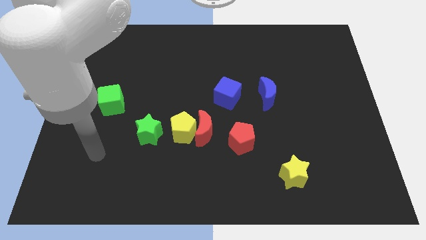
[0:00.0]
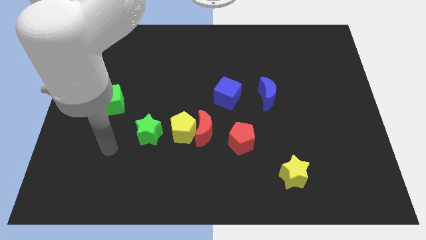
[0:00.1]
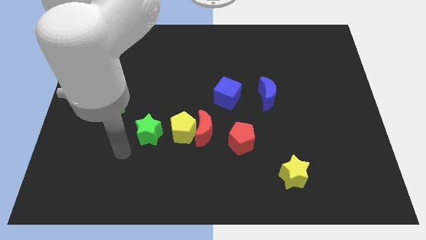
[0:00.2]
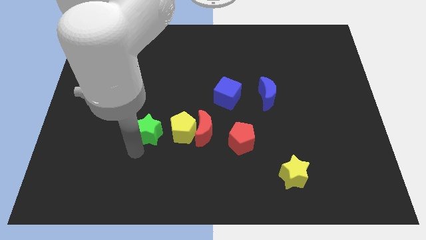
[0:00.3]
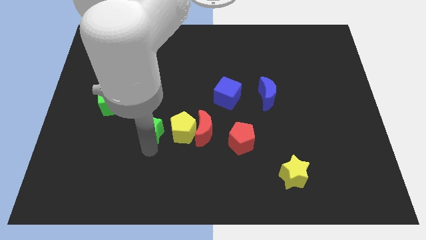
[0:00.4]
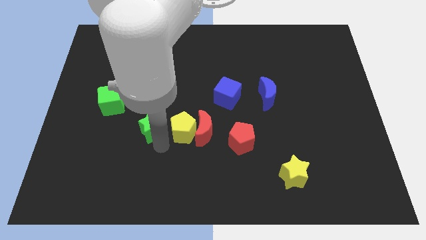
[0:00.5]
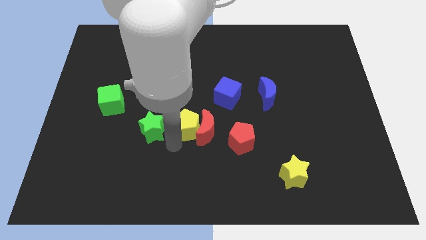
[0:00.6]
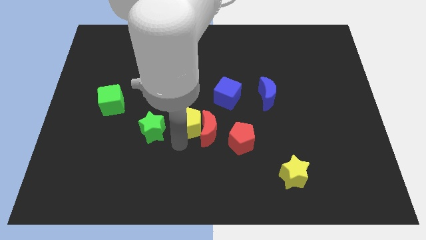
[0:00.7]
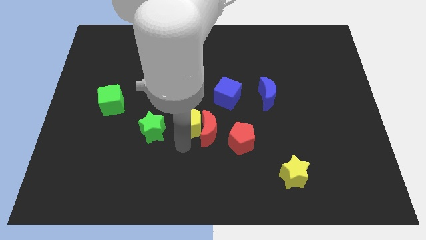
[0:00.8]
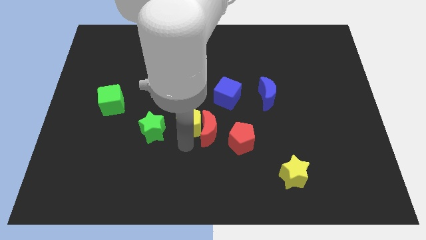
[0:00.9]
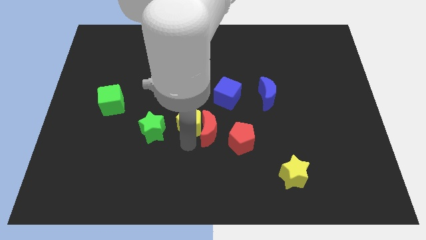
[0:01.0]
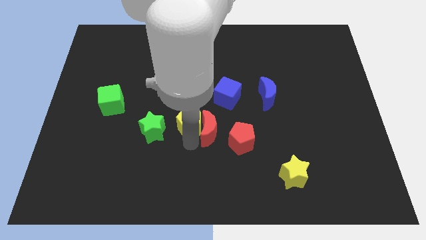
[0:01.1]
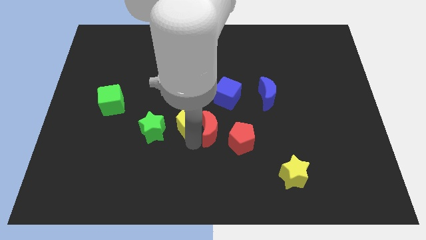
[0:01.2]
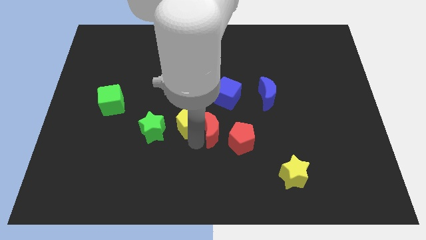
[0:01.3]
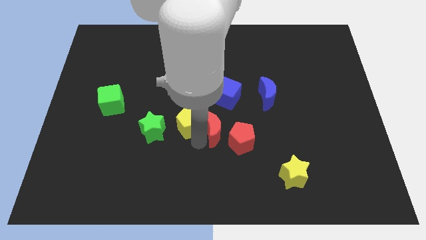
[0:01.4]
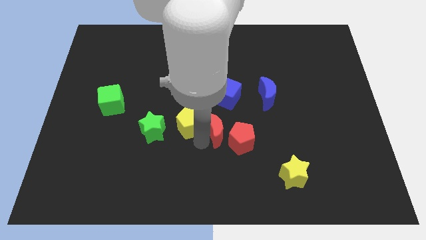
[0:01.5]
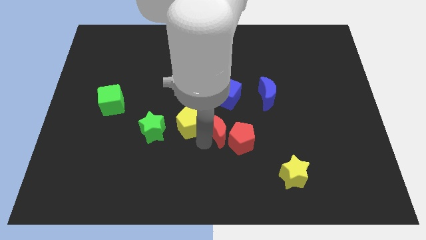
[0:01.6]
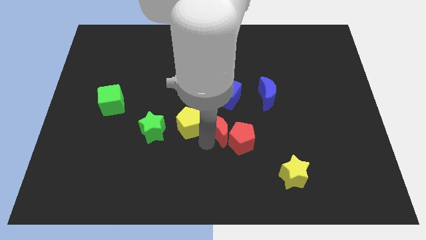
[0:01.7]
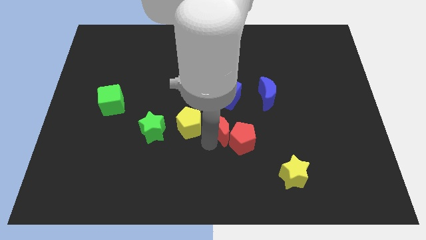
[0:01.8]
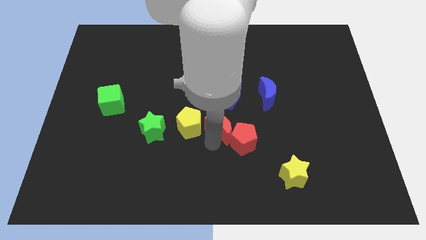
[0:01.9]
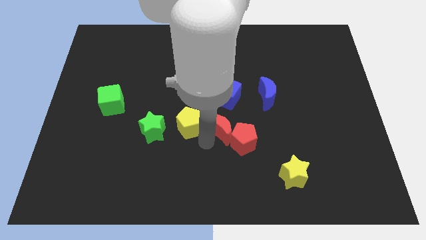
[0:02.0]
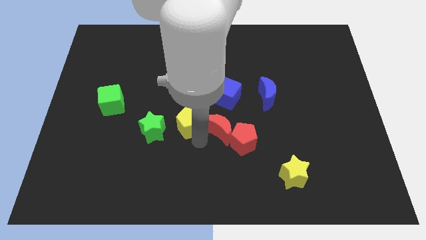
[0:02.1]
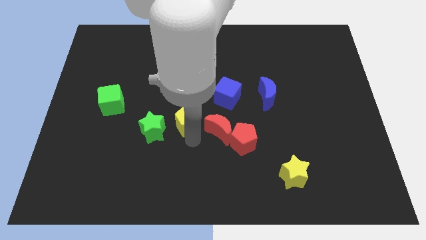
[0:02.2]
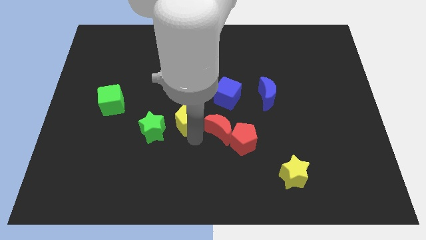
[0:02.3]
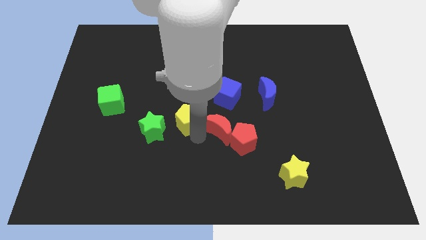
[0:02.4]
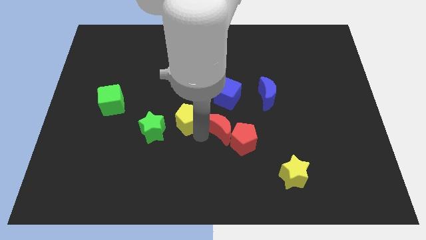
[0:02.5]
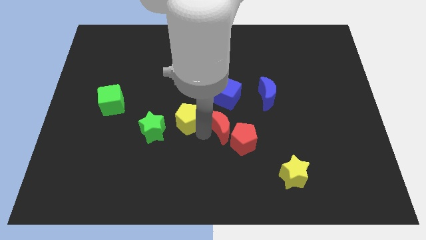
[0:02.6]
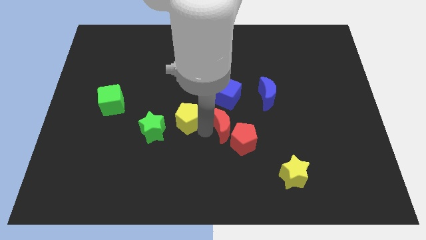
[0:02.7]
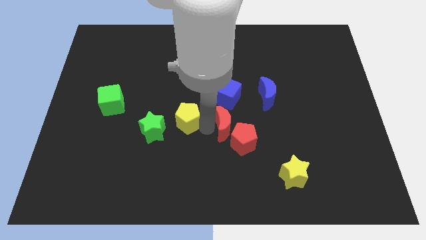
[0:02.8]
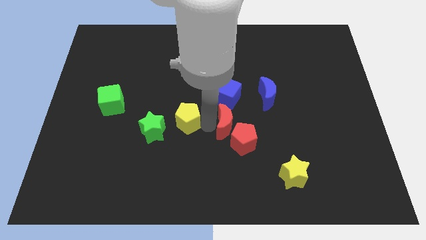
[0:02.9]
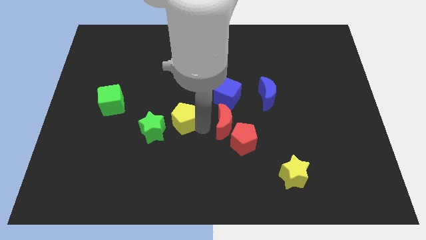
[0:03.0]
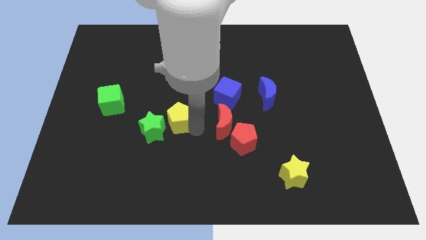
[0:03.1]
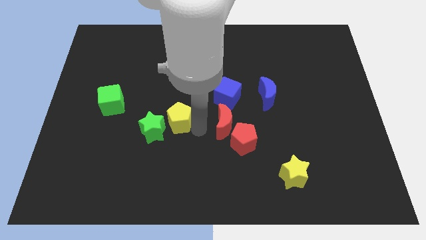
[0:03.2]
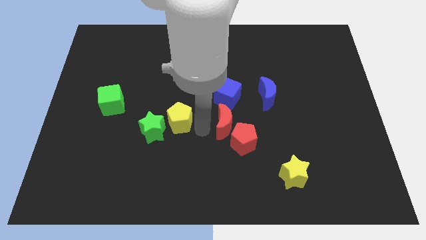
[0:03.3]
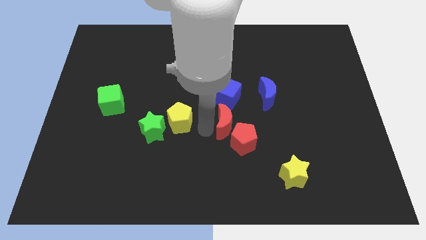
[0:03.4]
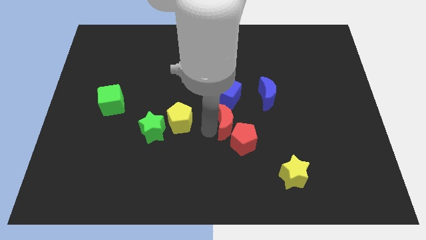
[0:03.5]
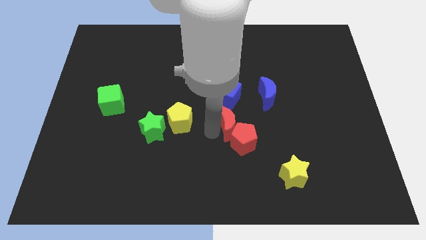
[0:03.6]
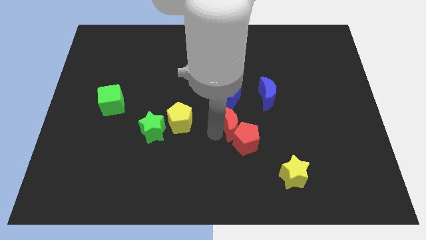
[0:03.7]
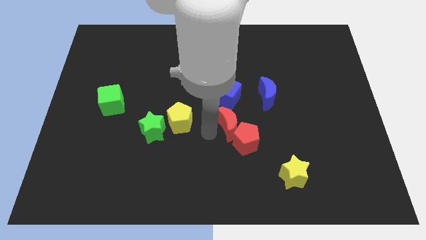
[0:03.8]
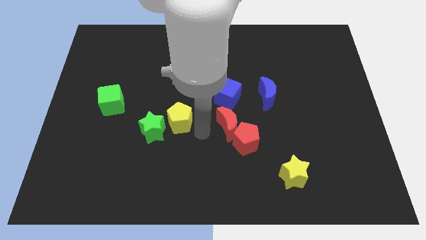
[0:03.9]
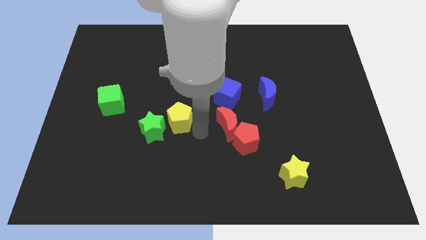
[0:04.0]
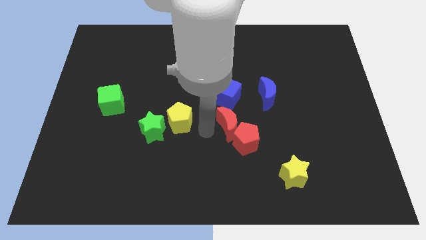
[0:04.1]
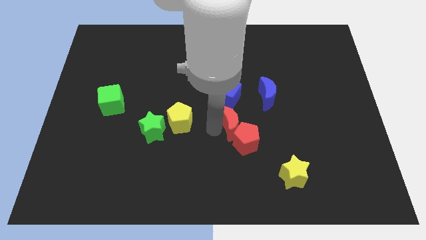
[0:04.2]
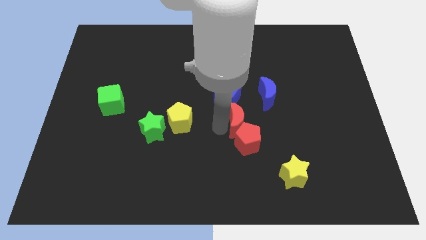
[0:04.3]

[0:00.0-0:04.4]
move the red moon to the right somewhat

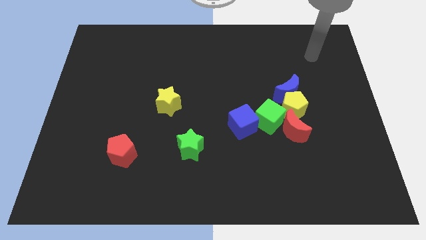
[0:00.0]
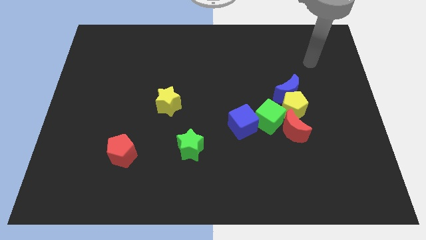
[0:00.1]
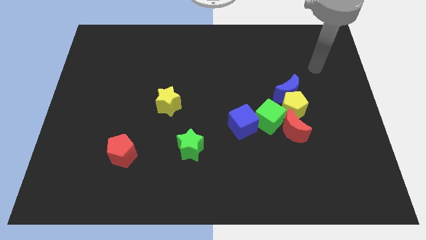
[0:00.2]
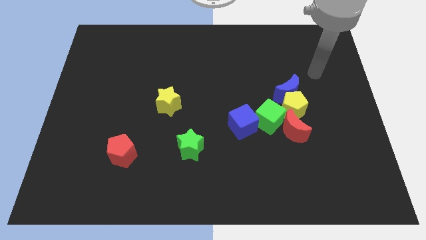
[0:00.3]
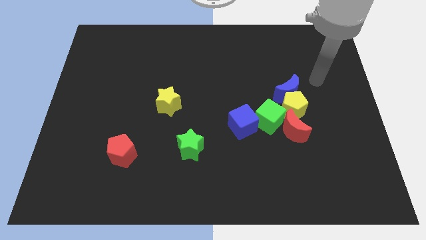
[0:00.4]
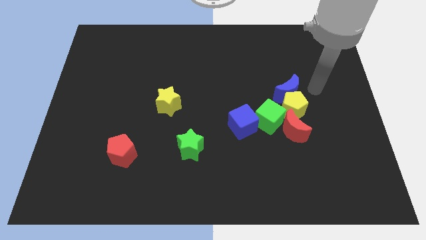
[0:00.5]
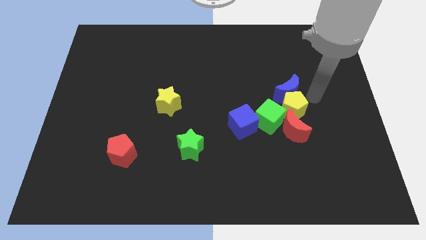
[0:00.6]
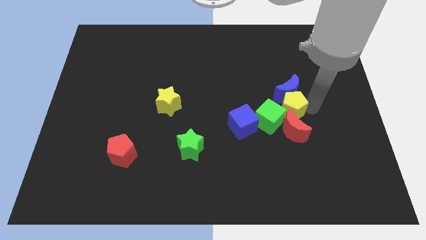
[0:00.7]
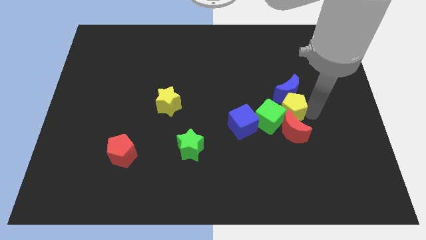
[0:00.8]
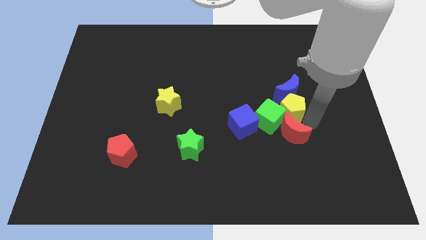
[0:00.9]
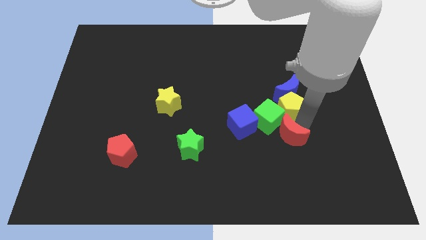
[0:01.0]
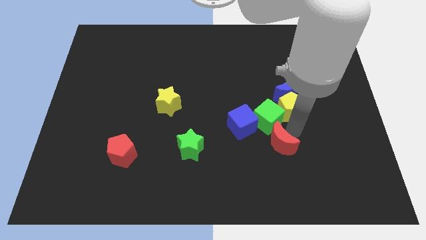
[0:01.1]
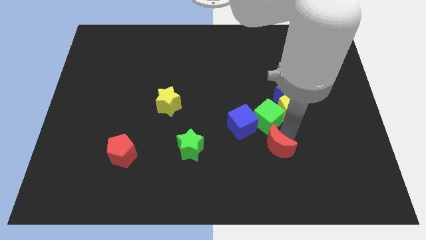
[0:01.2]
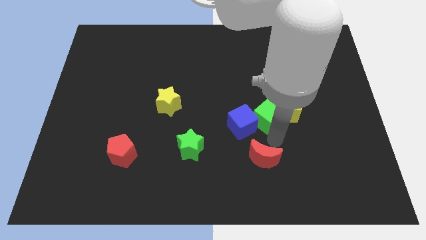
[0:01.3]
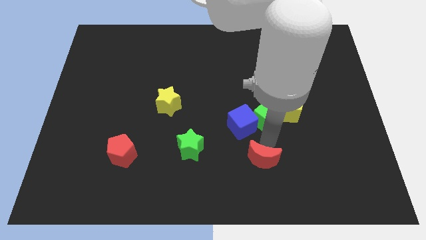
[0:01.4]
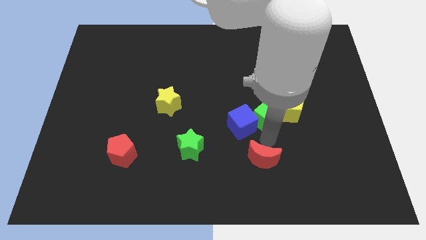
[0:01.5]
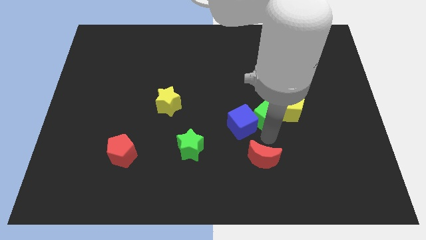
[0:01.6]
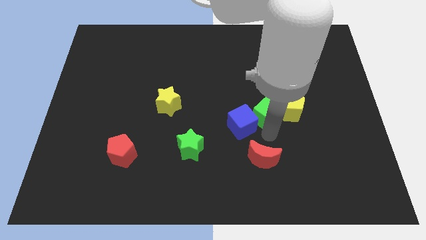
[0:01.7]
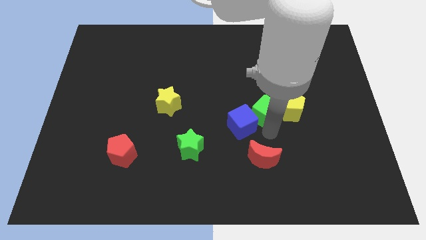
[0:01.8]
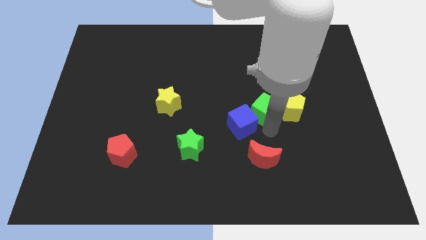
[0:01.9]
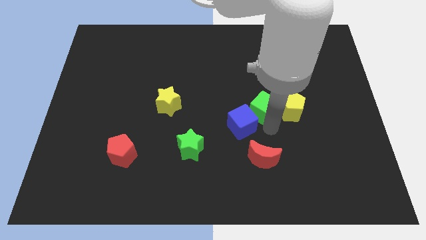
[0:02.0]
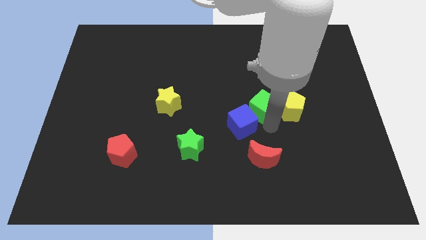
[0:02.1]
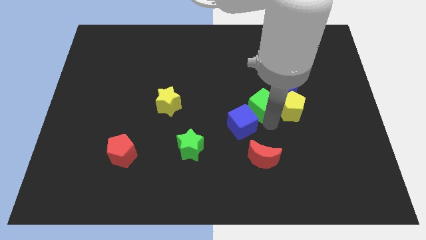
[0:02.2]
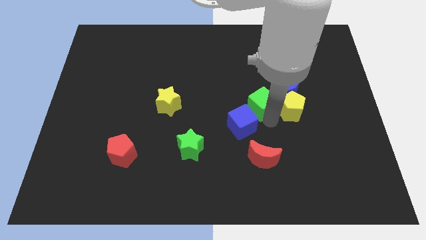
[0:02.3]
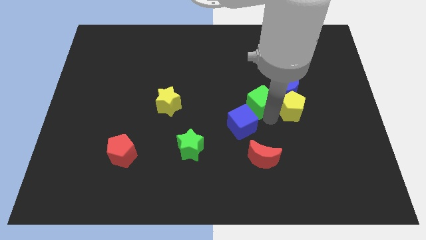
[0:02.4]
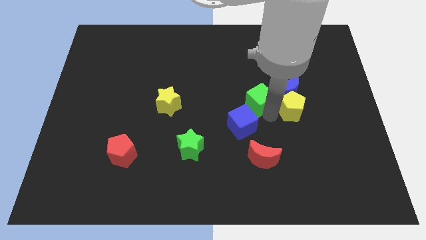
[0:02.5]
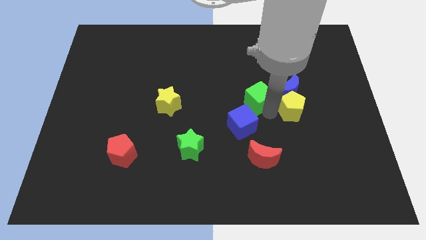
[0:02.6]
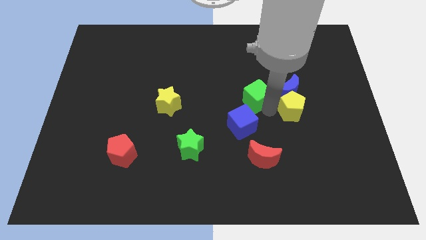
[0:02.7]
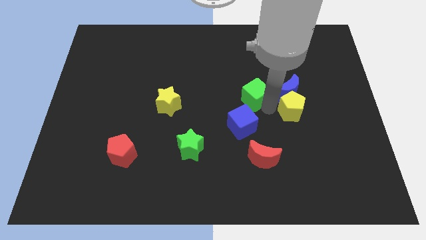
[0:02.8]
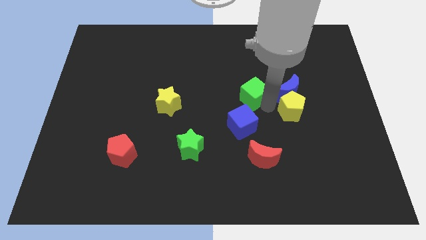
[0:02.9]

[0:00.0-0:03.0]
push the green cube up slightly

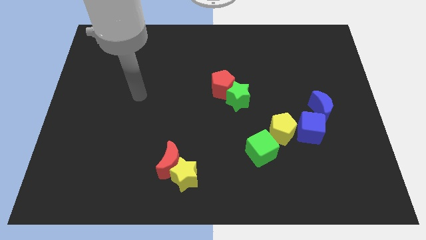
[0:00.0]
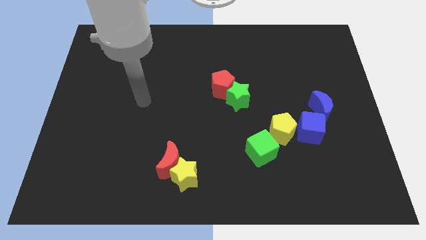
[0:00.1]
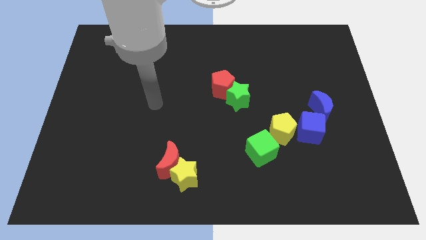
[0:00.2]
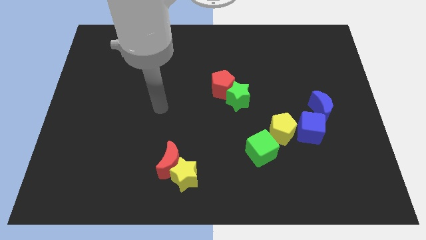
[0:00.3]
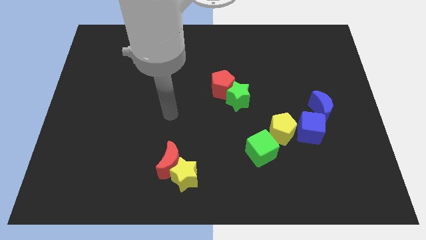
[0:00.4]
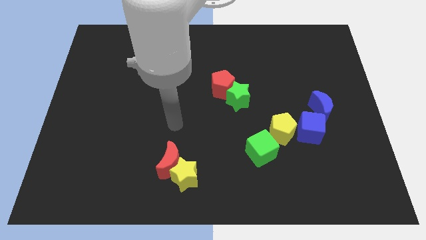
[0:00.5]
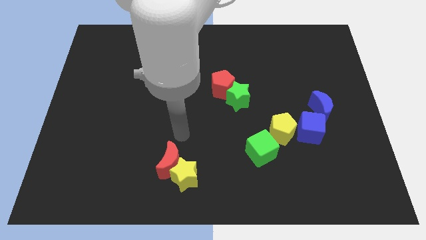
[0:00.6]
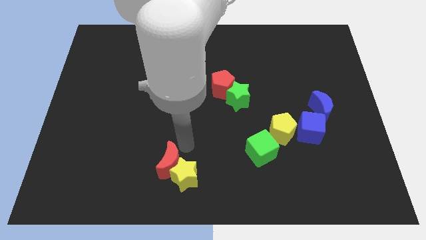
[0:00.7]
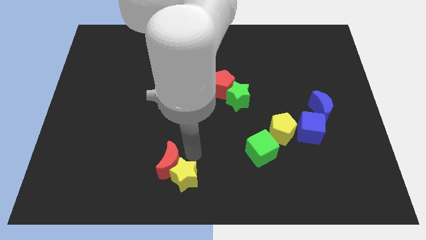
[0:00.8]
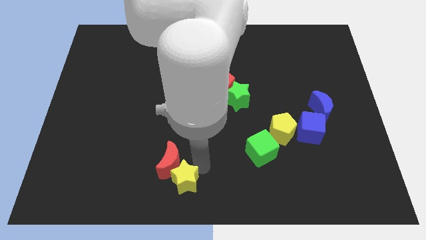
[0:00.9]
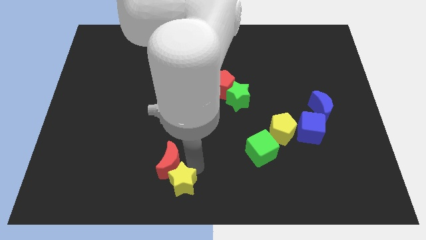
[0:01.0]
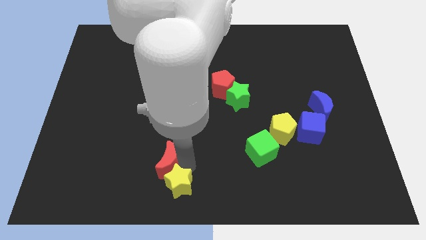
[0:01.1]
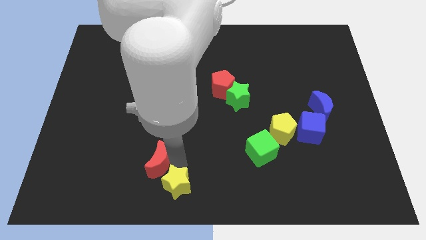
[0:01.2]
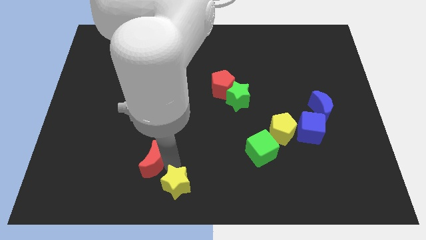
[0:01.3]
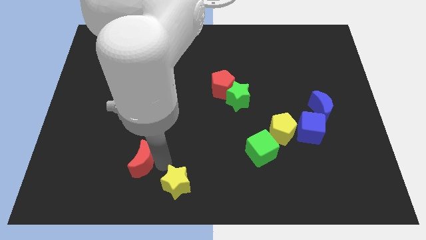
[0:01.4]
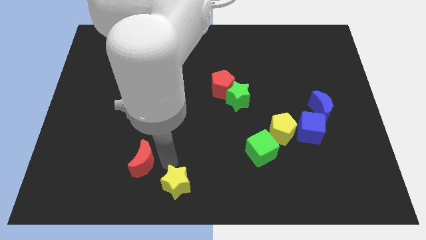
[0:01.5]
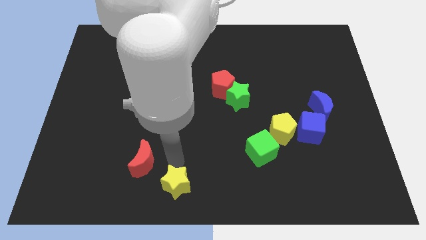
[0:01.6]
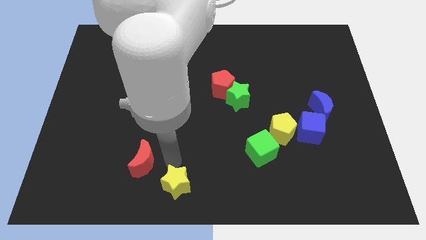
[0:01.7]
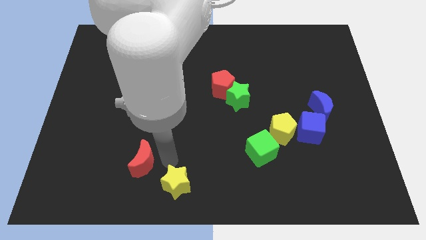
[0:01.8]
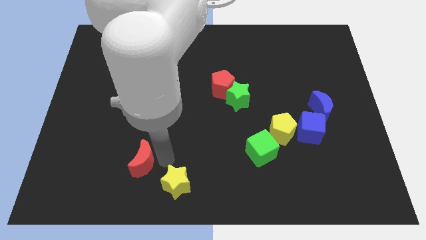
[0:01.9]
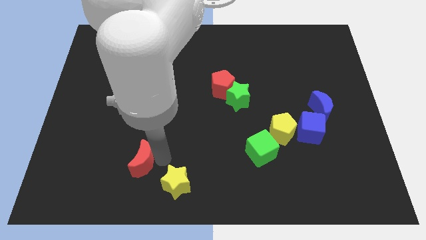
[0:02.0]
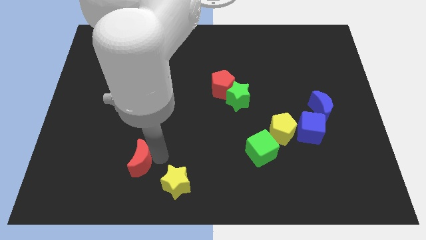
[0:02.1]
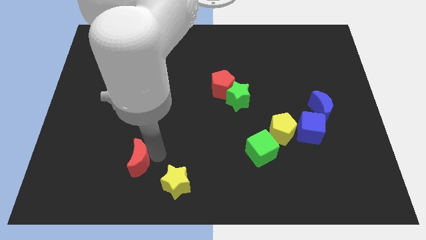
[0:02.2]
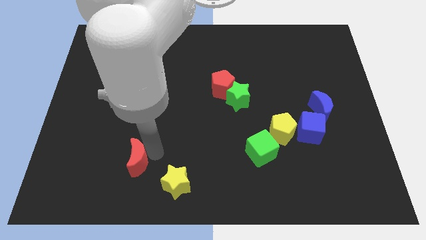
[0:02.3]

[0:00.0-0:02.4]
move the red moon slightly to the left
